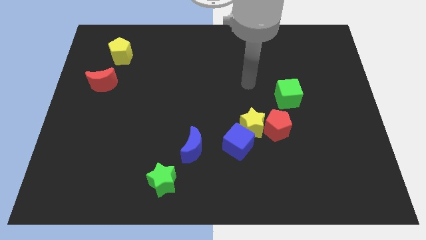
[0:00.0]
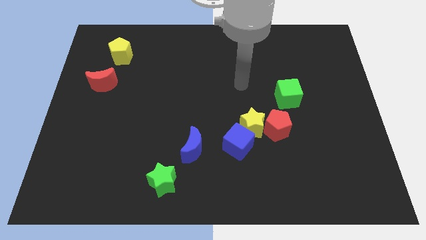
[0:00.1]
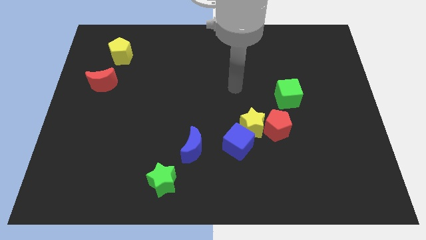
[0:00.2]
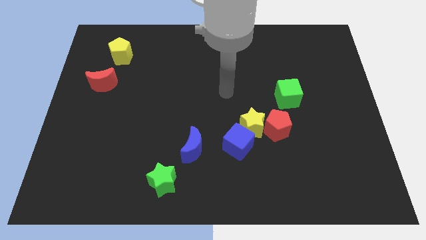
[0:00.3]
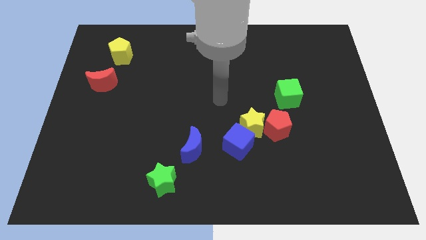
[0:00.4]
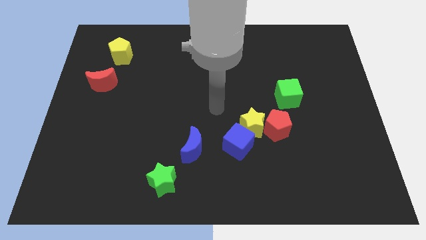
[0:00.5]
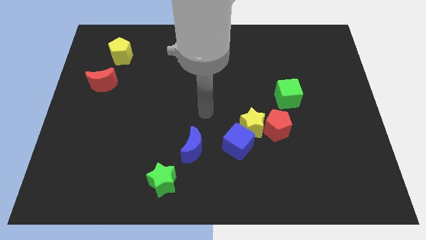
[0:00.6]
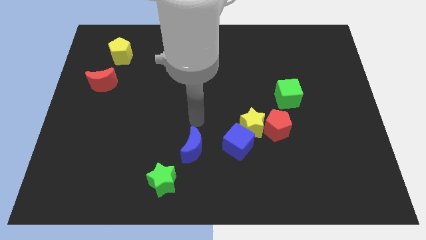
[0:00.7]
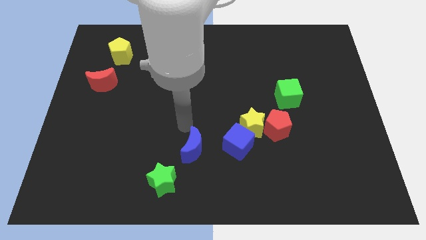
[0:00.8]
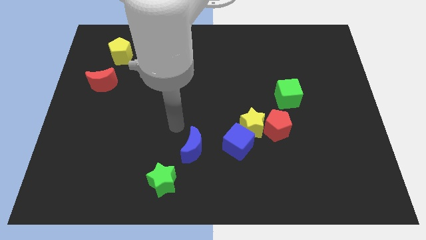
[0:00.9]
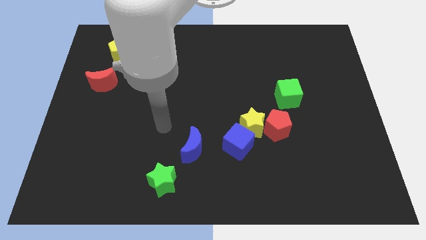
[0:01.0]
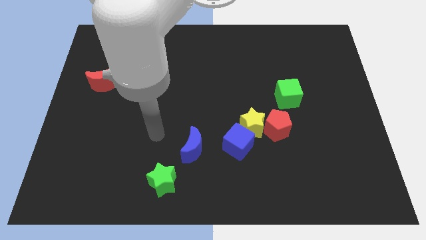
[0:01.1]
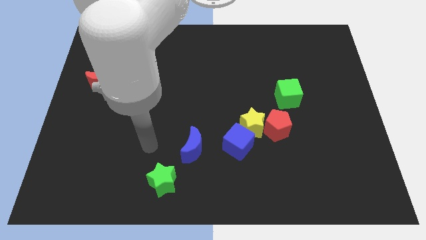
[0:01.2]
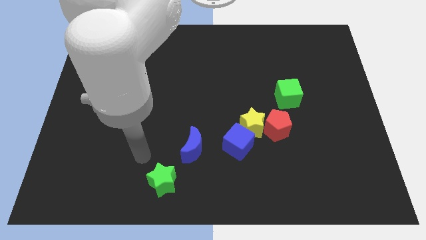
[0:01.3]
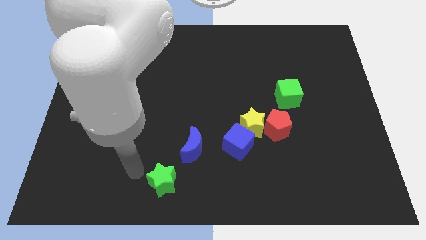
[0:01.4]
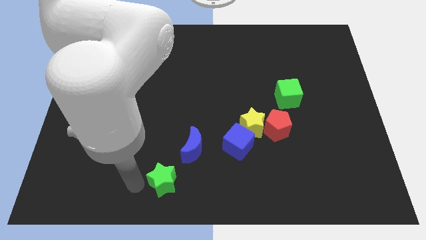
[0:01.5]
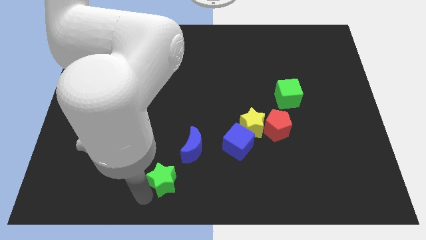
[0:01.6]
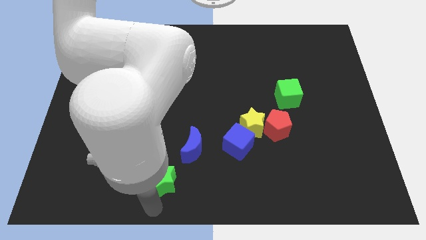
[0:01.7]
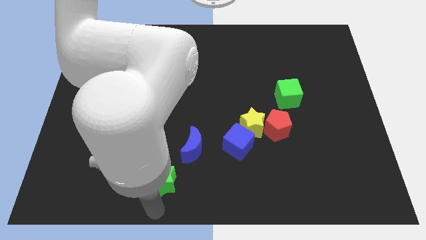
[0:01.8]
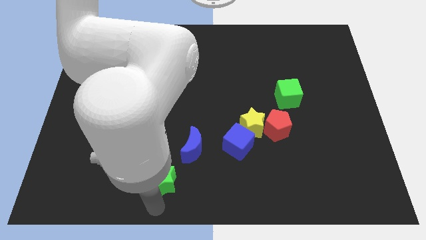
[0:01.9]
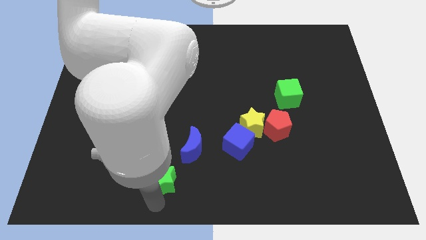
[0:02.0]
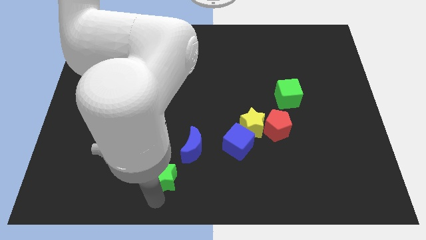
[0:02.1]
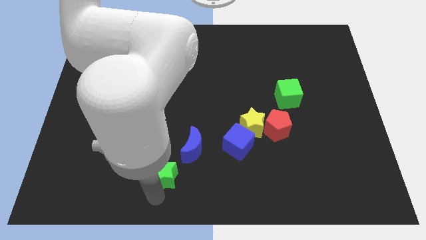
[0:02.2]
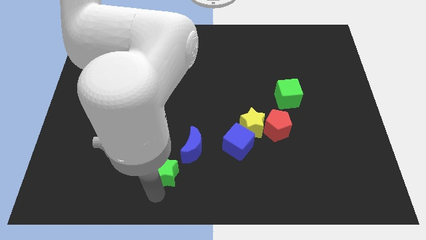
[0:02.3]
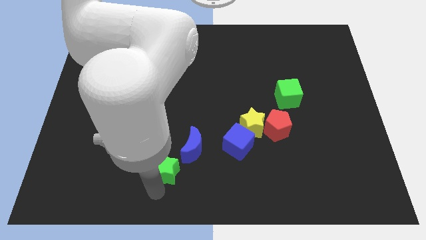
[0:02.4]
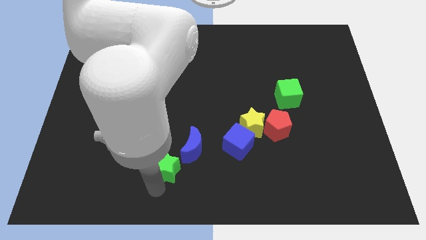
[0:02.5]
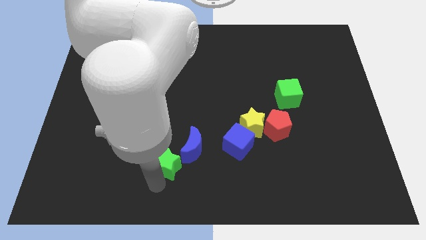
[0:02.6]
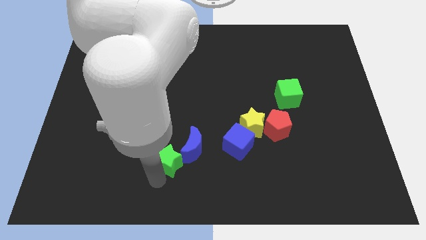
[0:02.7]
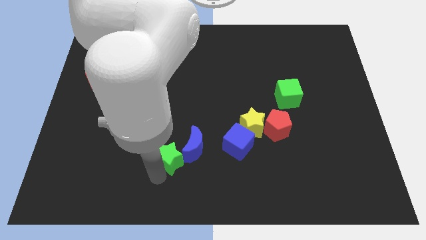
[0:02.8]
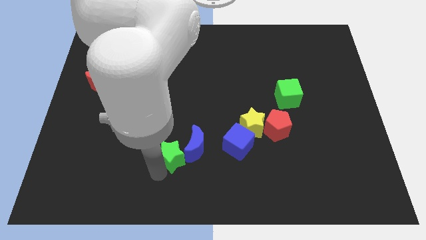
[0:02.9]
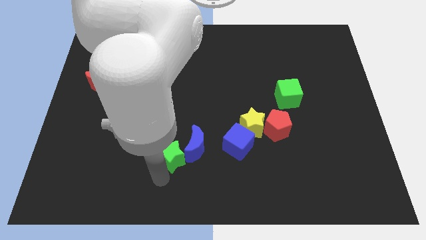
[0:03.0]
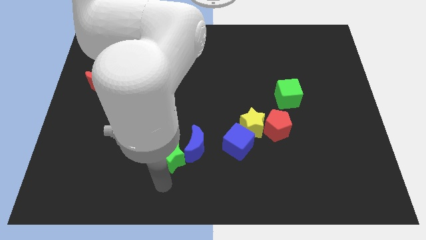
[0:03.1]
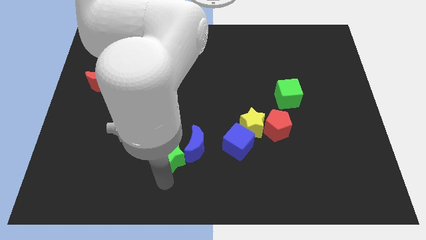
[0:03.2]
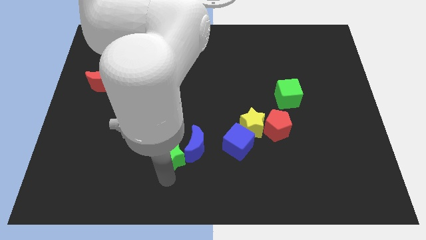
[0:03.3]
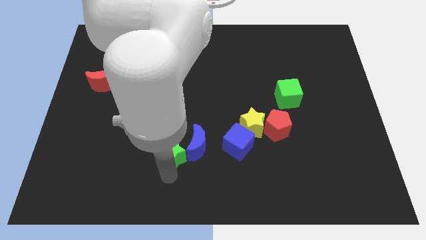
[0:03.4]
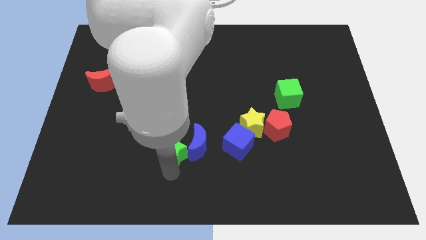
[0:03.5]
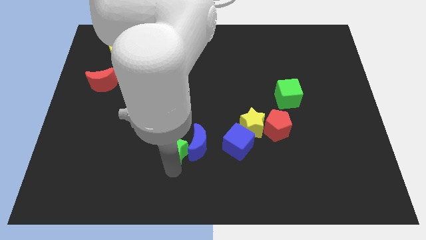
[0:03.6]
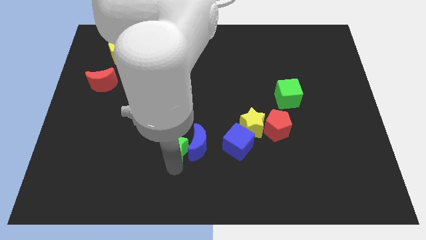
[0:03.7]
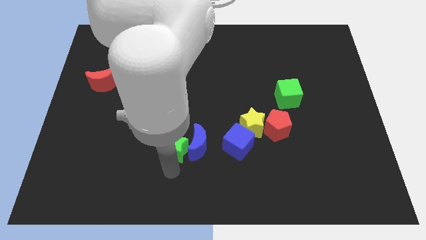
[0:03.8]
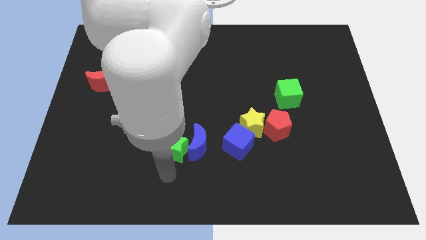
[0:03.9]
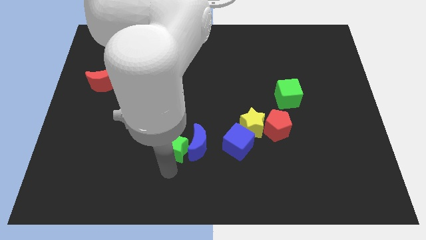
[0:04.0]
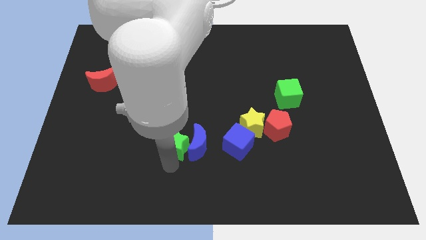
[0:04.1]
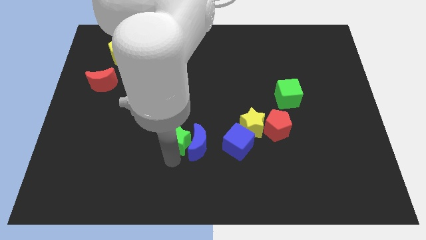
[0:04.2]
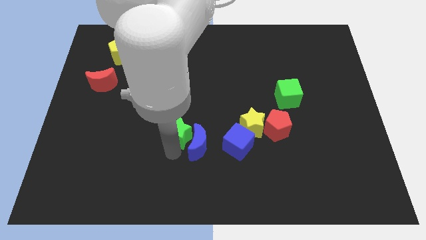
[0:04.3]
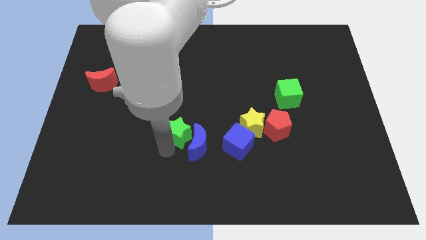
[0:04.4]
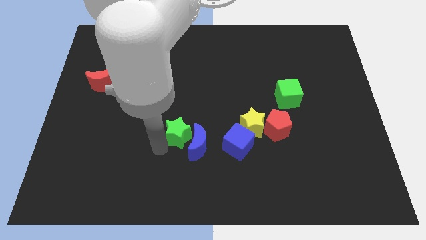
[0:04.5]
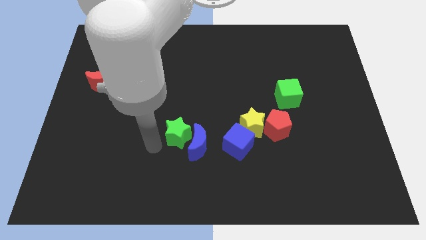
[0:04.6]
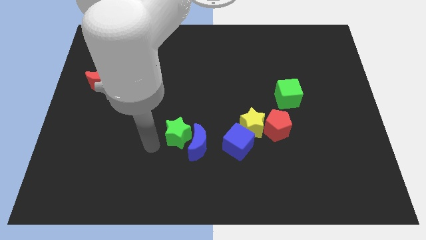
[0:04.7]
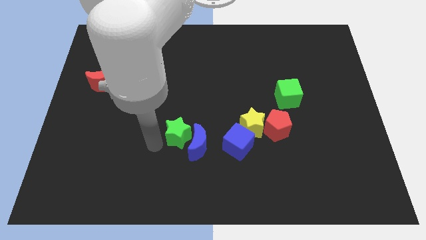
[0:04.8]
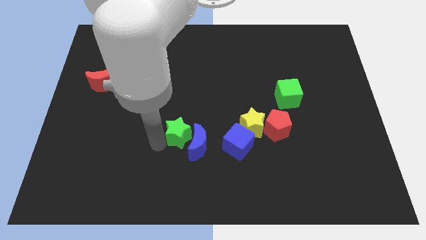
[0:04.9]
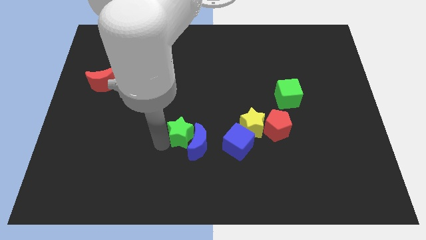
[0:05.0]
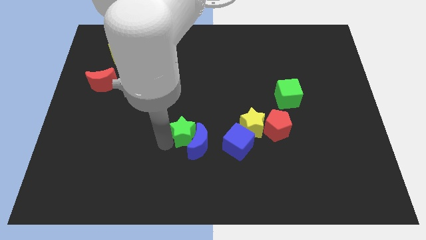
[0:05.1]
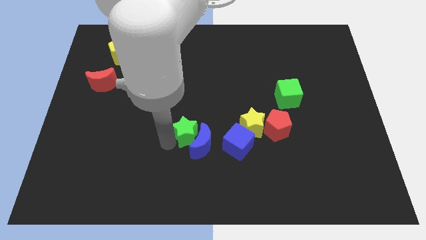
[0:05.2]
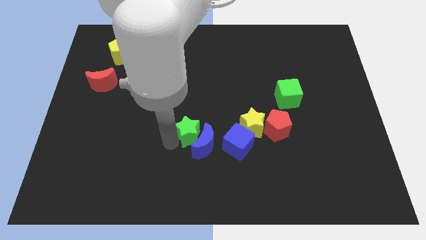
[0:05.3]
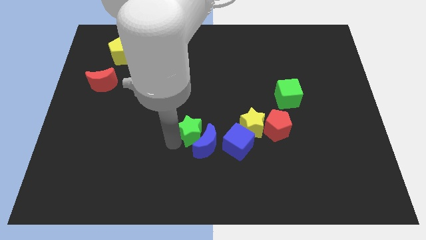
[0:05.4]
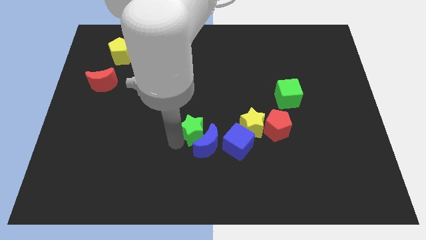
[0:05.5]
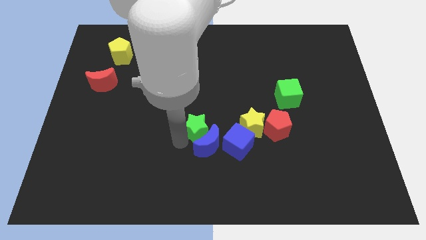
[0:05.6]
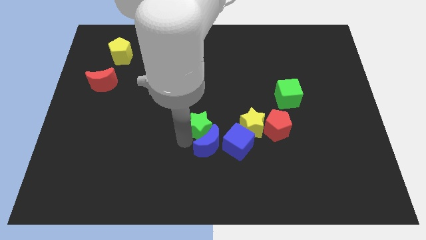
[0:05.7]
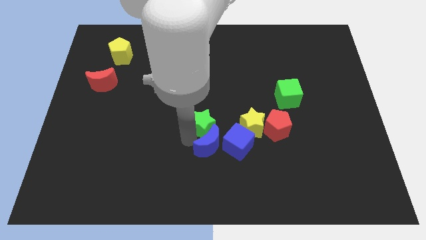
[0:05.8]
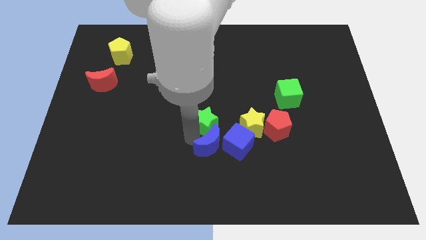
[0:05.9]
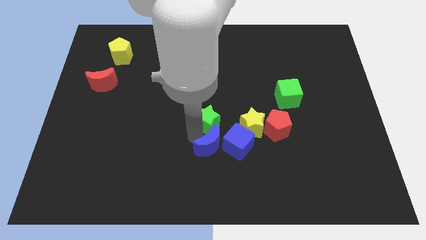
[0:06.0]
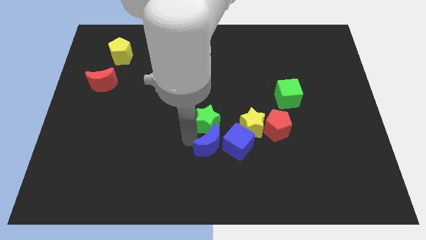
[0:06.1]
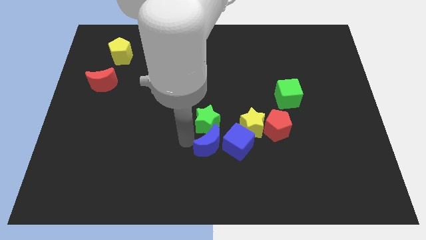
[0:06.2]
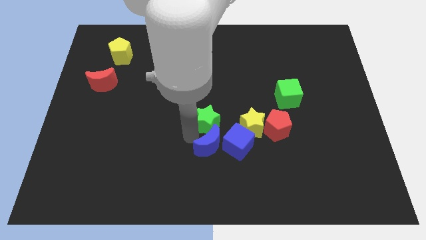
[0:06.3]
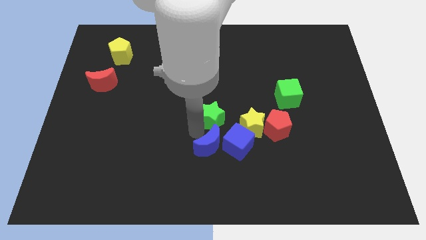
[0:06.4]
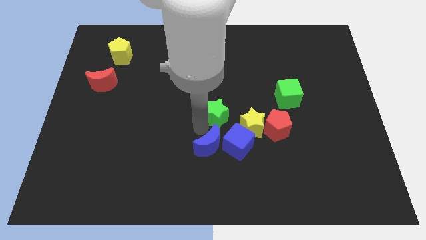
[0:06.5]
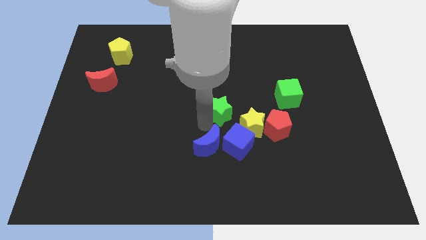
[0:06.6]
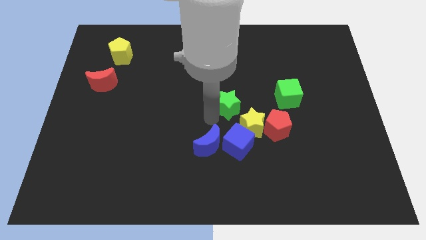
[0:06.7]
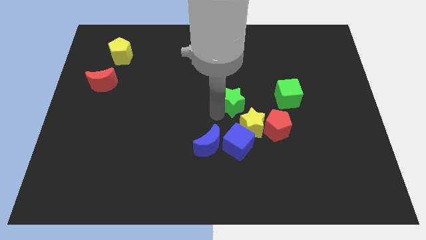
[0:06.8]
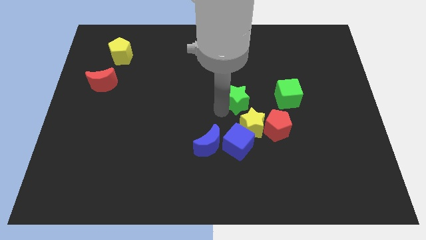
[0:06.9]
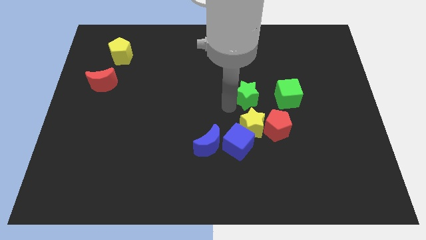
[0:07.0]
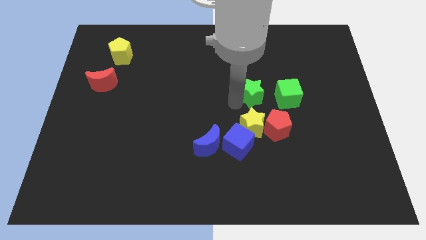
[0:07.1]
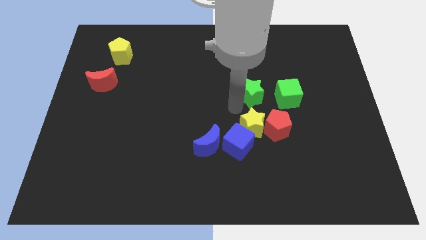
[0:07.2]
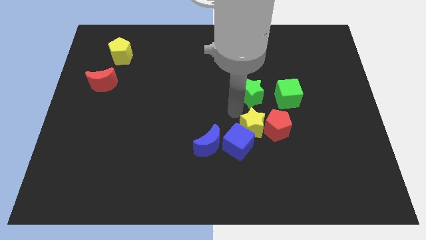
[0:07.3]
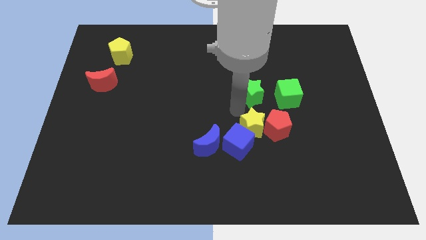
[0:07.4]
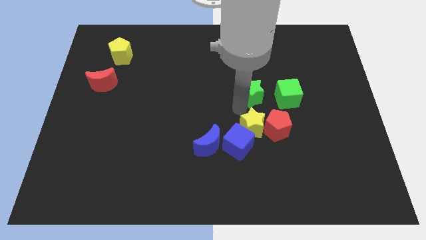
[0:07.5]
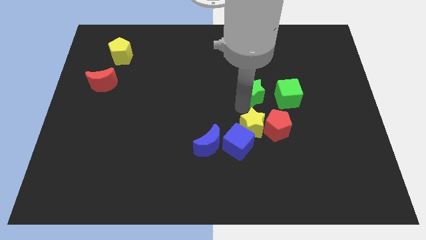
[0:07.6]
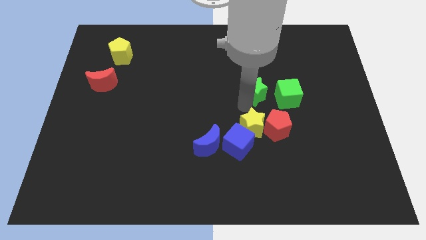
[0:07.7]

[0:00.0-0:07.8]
push the green star to the top left of the green cube

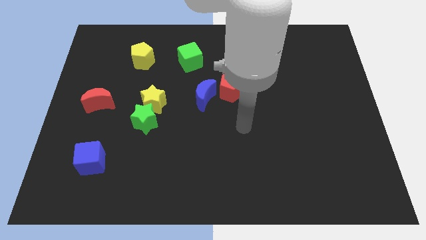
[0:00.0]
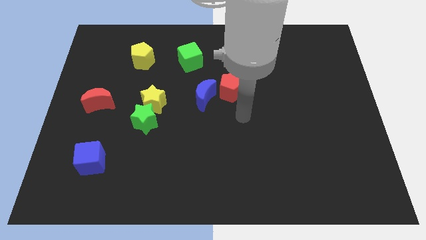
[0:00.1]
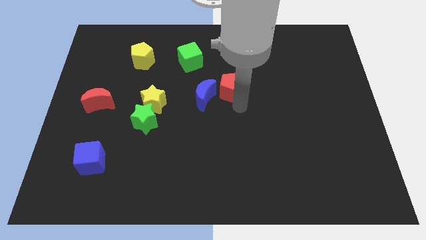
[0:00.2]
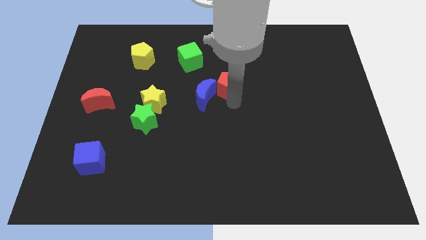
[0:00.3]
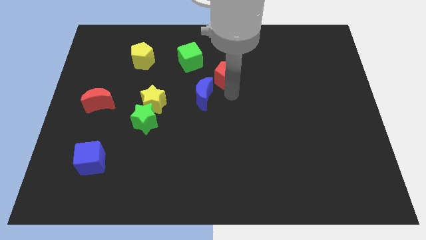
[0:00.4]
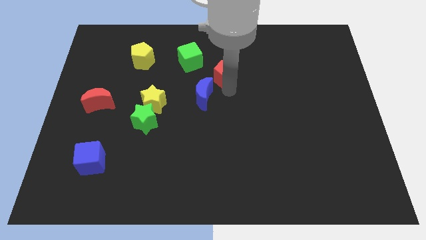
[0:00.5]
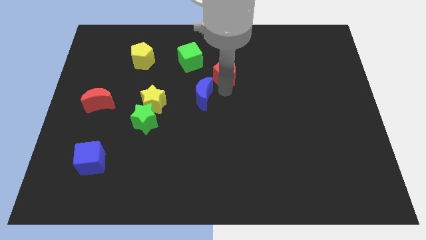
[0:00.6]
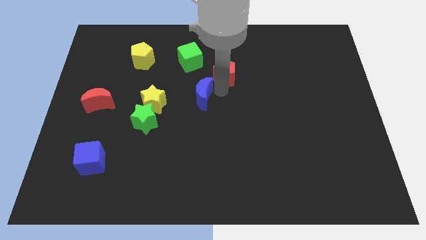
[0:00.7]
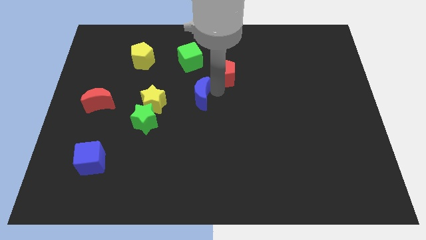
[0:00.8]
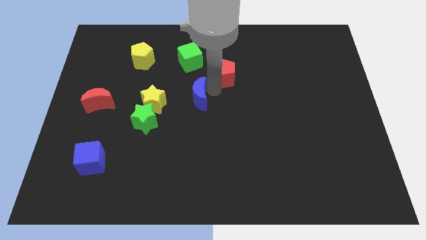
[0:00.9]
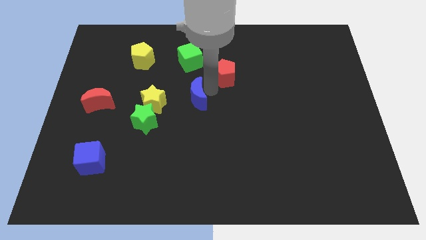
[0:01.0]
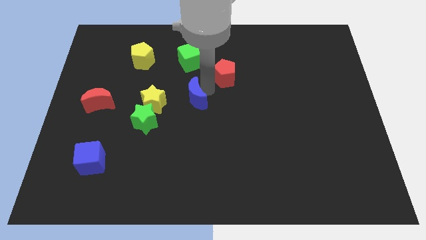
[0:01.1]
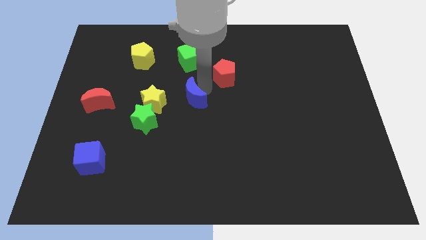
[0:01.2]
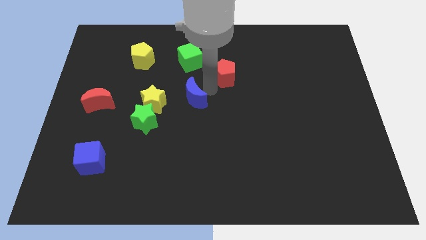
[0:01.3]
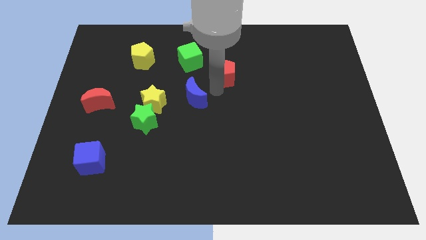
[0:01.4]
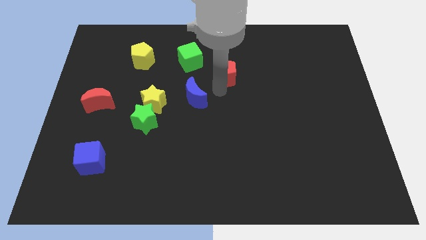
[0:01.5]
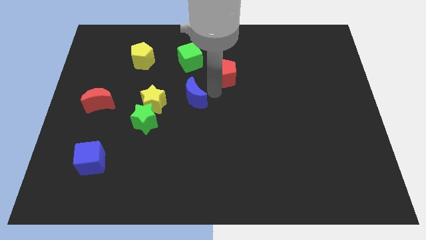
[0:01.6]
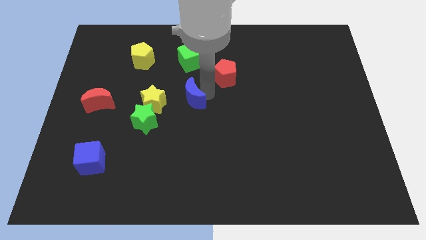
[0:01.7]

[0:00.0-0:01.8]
push the blue moon diagonally up and to the right of the green star
